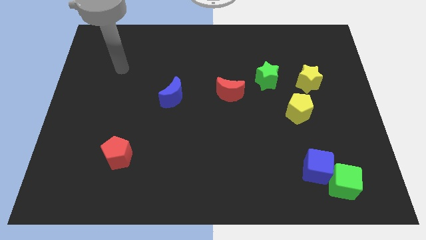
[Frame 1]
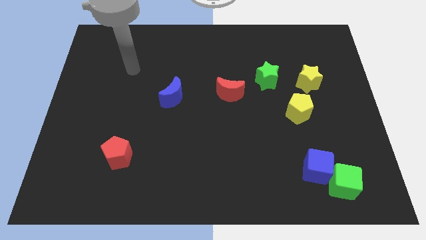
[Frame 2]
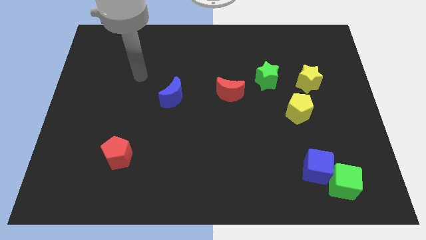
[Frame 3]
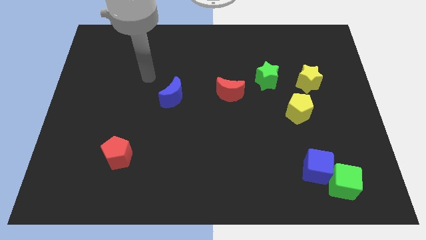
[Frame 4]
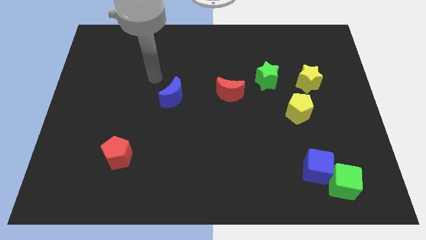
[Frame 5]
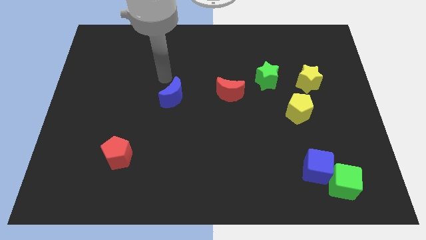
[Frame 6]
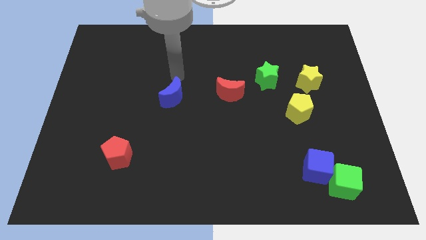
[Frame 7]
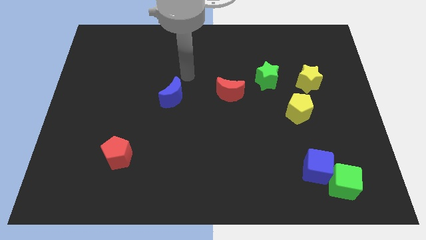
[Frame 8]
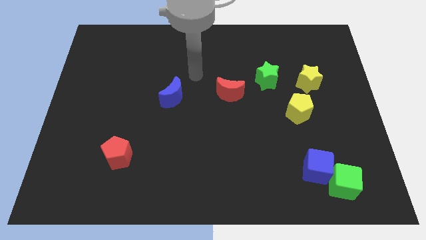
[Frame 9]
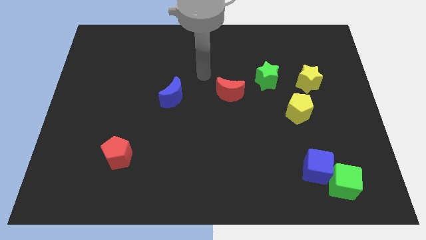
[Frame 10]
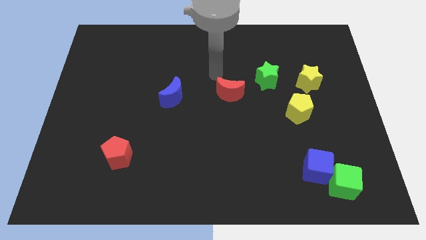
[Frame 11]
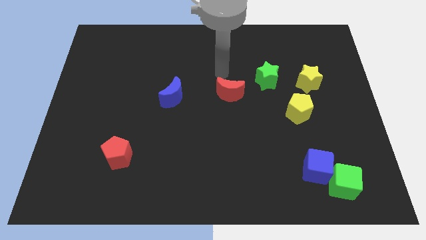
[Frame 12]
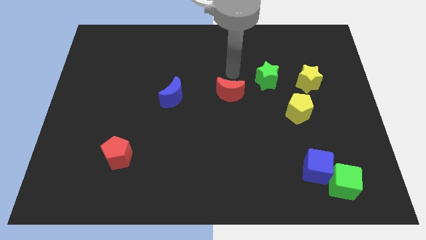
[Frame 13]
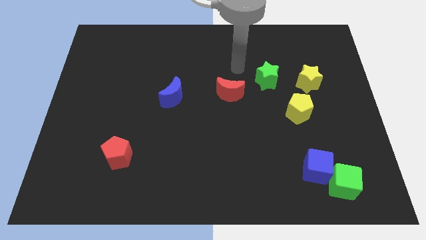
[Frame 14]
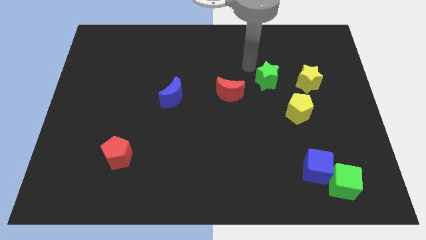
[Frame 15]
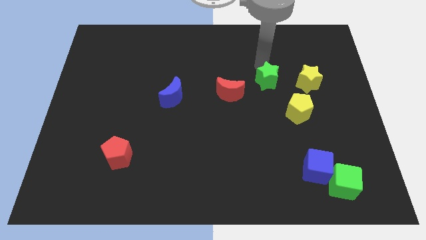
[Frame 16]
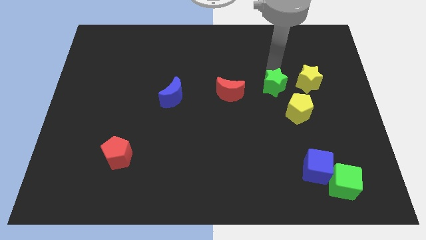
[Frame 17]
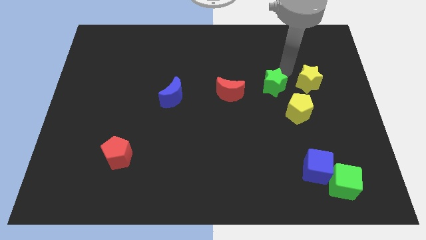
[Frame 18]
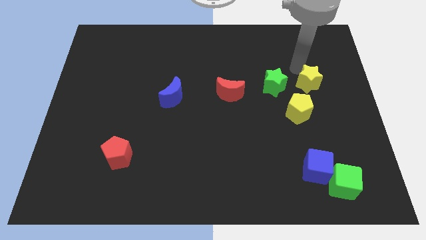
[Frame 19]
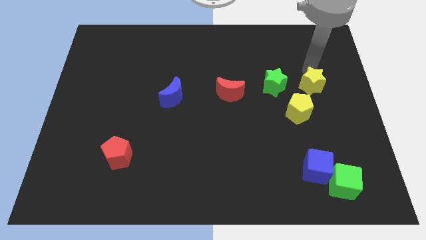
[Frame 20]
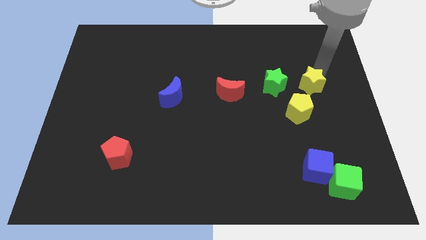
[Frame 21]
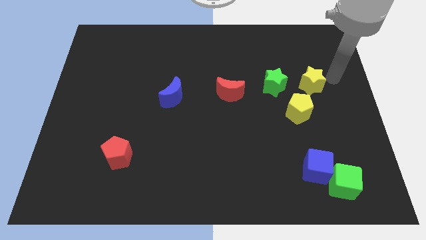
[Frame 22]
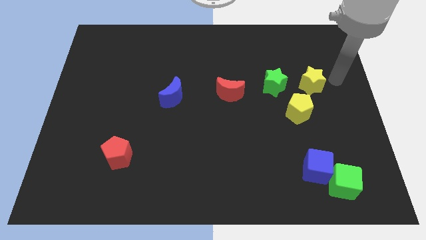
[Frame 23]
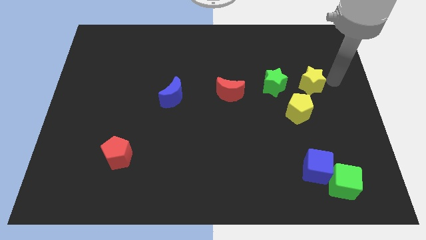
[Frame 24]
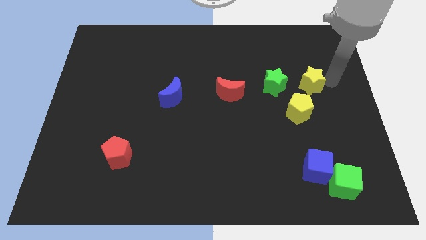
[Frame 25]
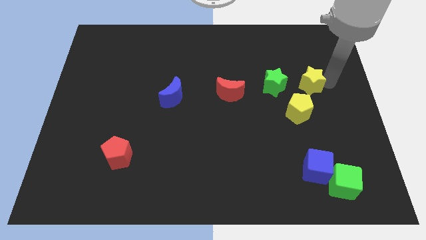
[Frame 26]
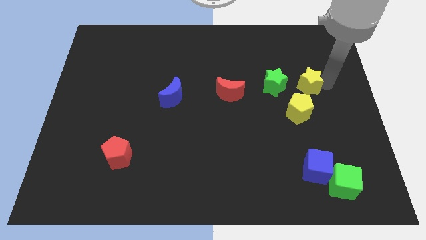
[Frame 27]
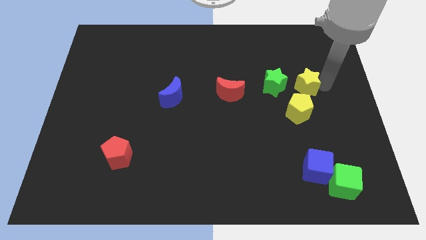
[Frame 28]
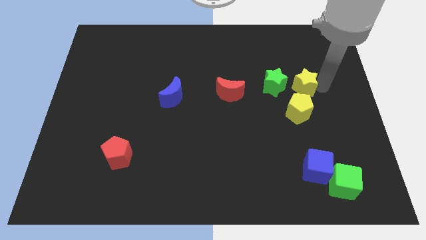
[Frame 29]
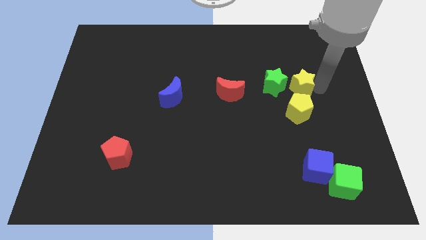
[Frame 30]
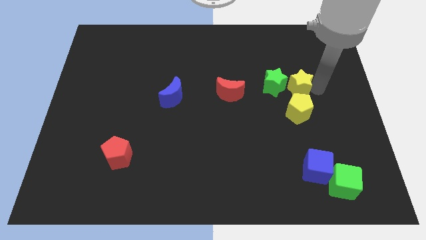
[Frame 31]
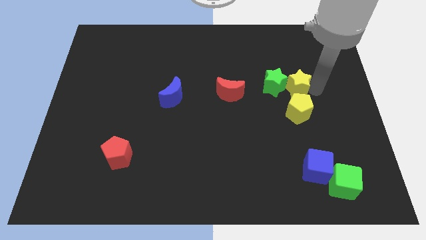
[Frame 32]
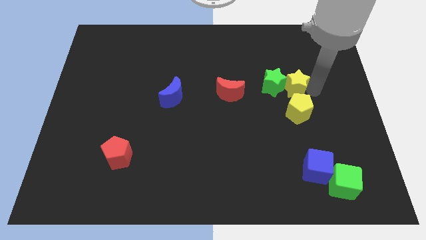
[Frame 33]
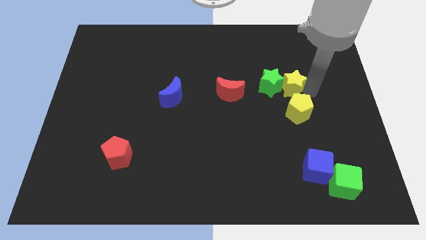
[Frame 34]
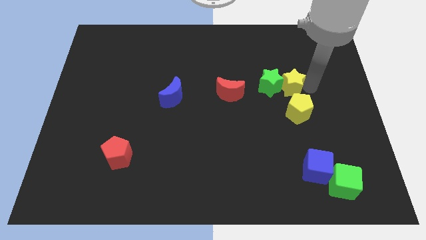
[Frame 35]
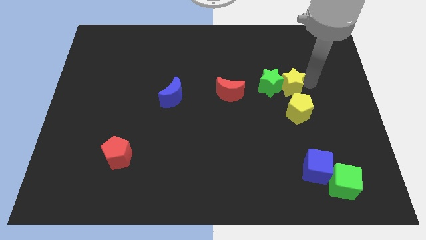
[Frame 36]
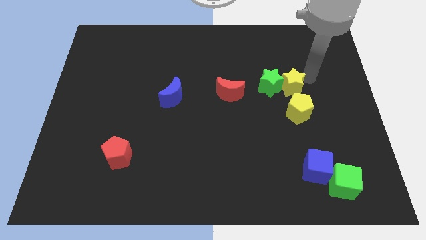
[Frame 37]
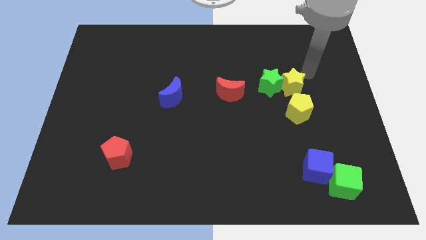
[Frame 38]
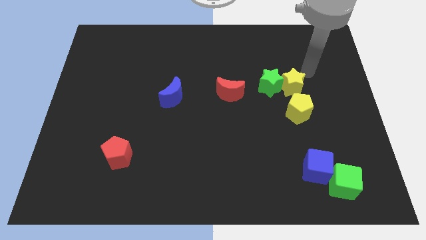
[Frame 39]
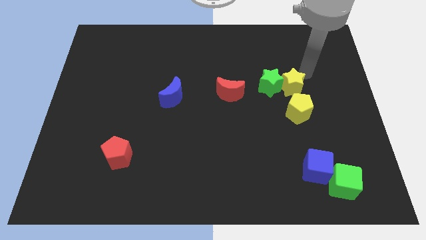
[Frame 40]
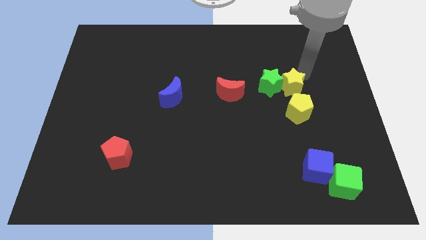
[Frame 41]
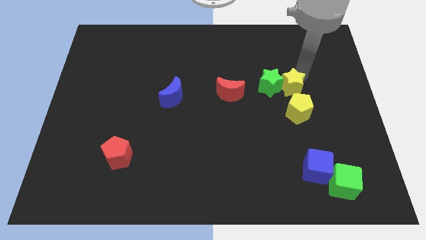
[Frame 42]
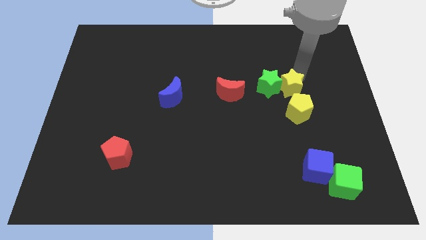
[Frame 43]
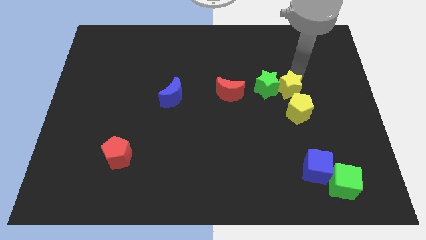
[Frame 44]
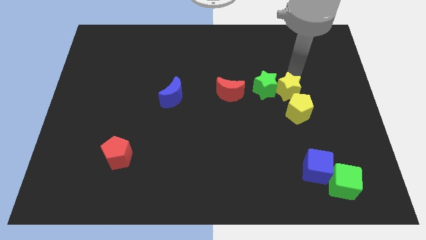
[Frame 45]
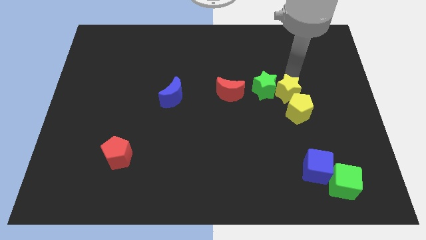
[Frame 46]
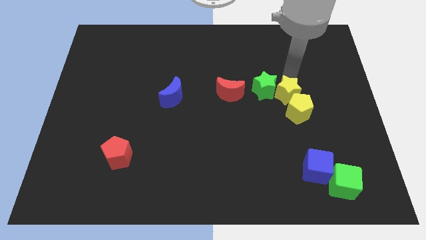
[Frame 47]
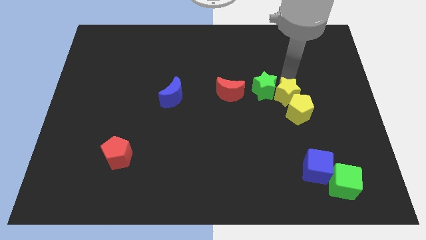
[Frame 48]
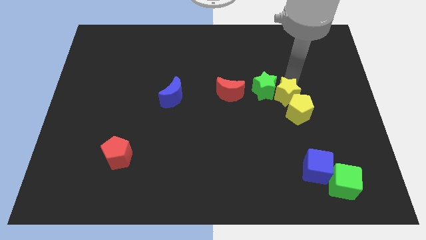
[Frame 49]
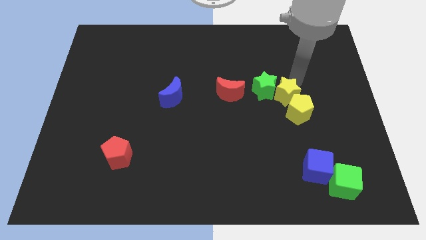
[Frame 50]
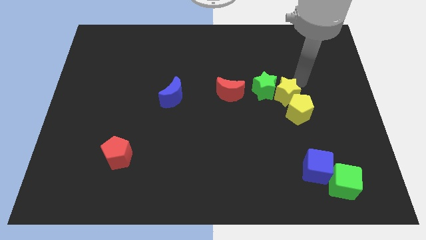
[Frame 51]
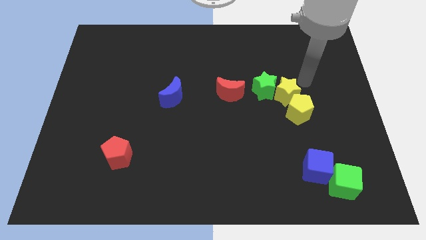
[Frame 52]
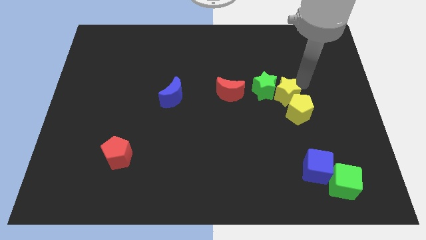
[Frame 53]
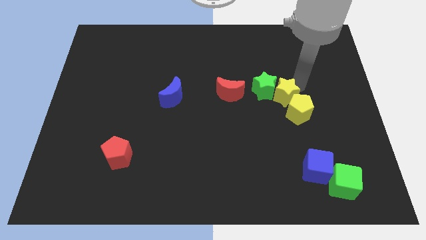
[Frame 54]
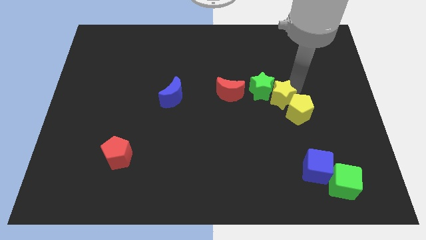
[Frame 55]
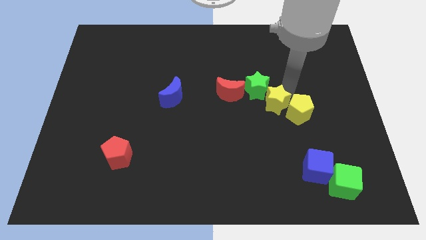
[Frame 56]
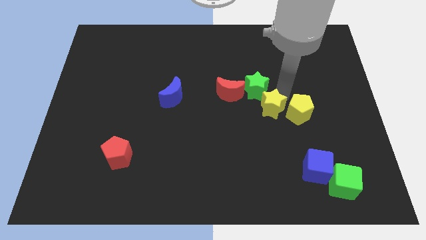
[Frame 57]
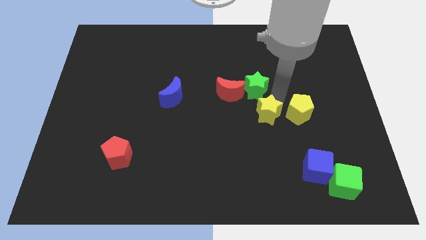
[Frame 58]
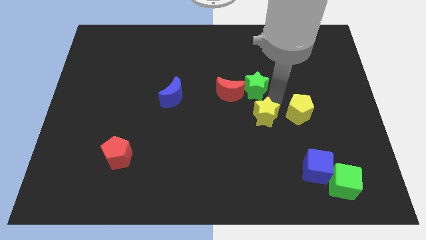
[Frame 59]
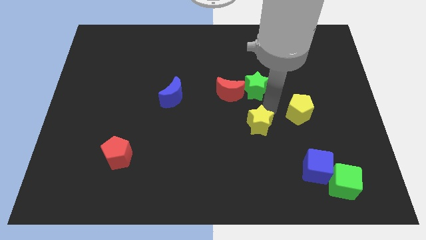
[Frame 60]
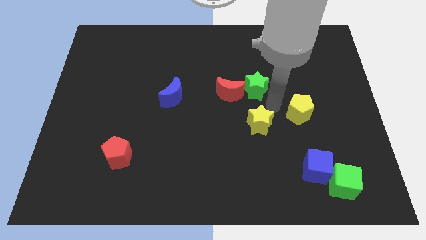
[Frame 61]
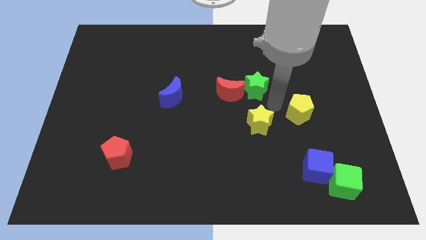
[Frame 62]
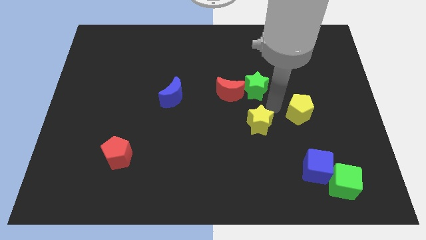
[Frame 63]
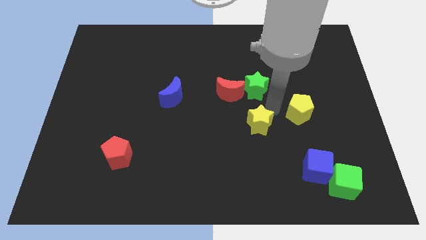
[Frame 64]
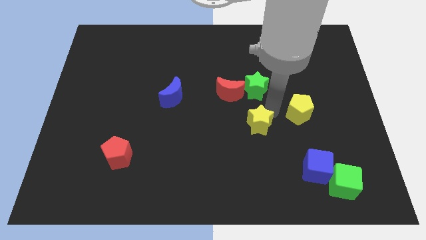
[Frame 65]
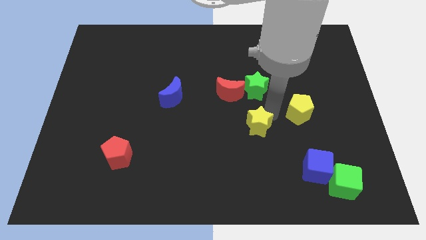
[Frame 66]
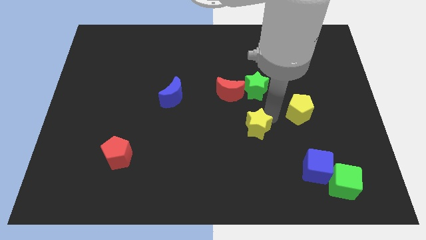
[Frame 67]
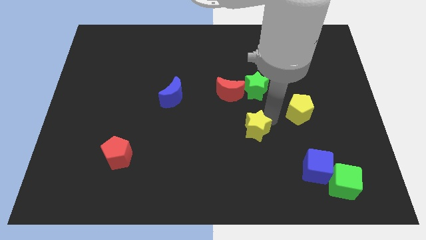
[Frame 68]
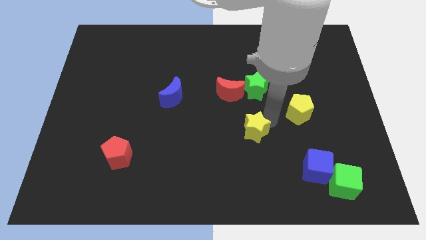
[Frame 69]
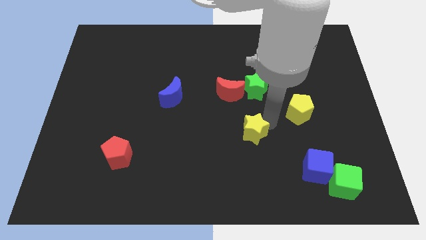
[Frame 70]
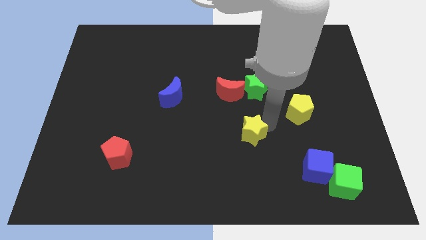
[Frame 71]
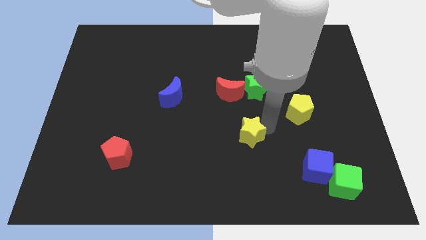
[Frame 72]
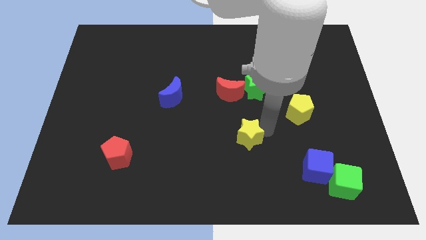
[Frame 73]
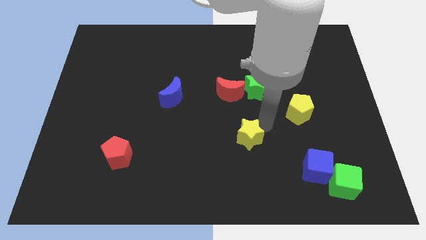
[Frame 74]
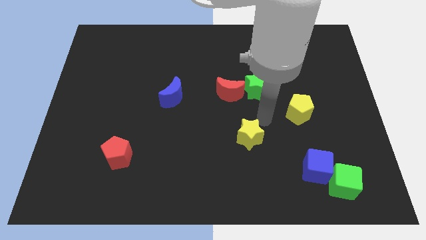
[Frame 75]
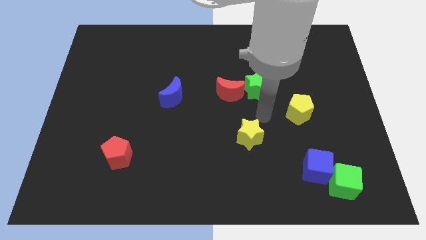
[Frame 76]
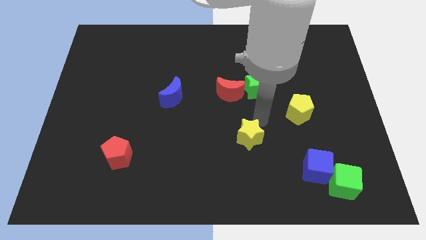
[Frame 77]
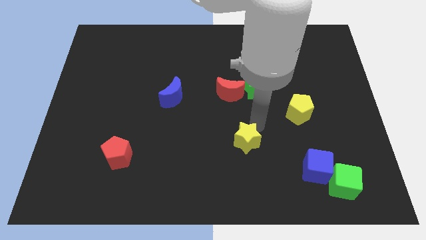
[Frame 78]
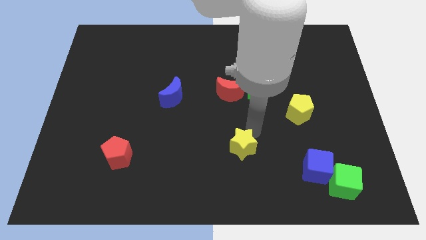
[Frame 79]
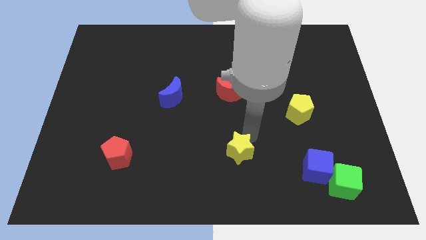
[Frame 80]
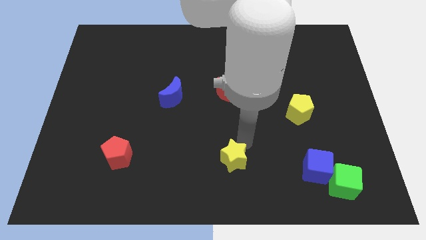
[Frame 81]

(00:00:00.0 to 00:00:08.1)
slide the yellow star to the bottom side
